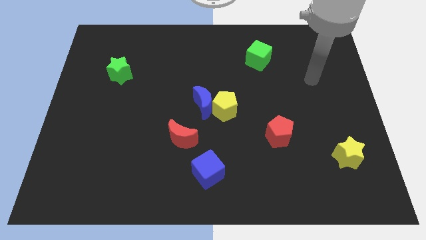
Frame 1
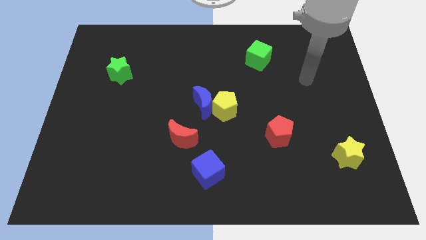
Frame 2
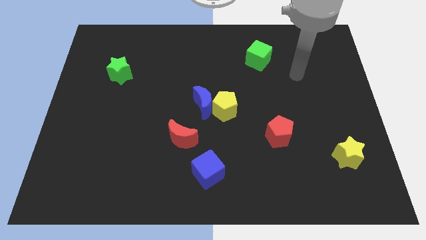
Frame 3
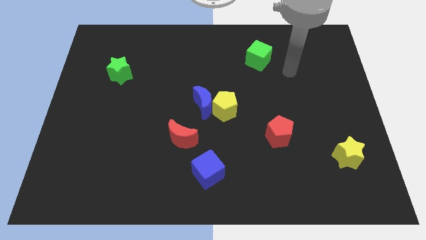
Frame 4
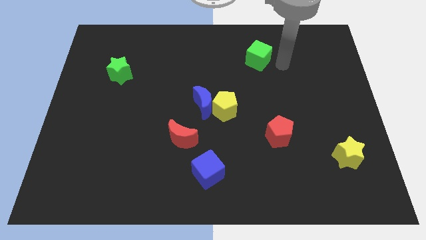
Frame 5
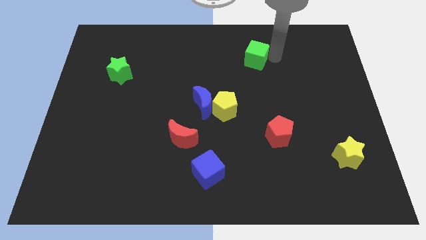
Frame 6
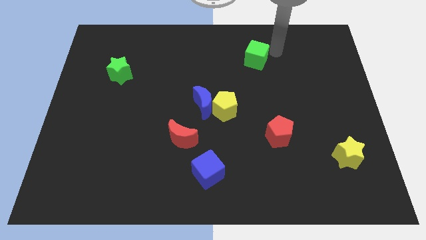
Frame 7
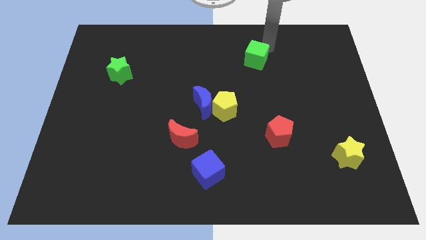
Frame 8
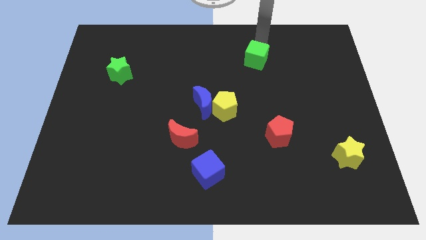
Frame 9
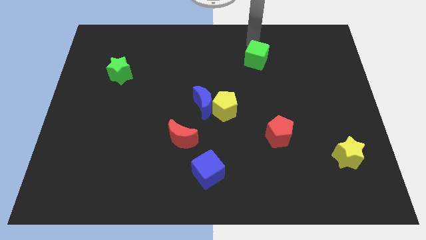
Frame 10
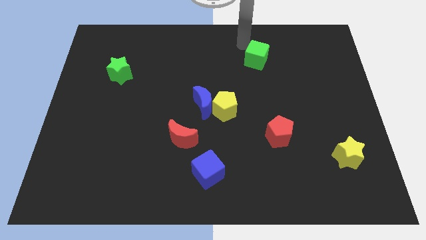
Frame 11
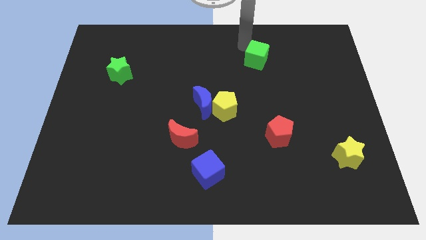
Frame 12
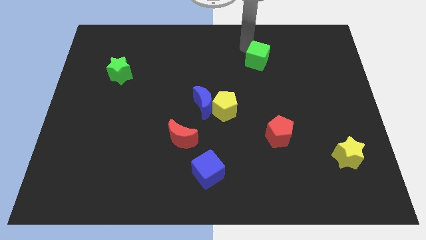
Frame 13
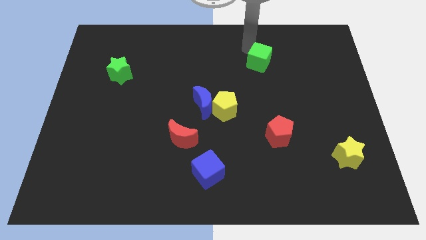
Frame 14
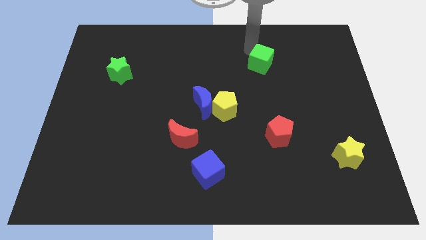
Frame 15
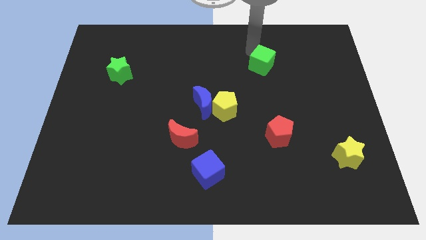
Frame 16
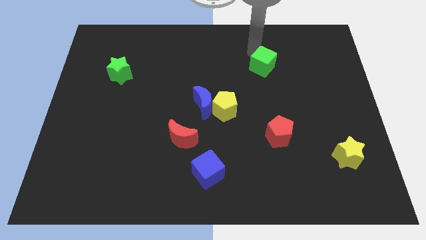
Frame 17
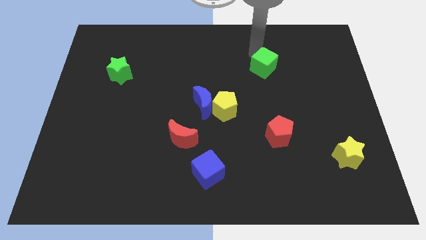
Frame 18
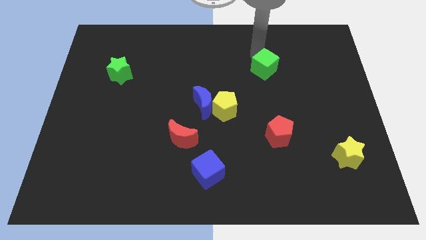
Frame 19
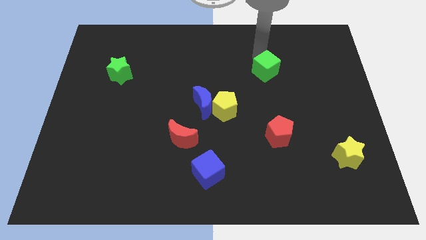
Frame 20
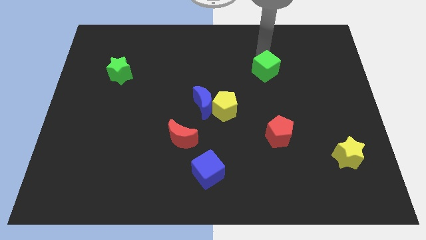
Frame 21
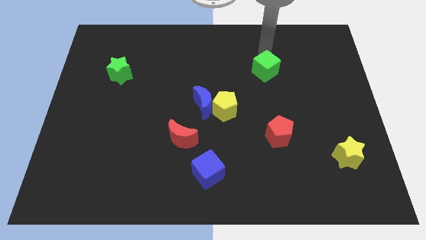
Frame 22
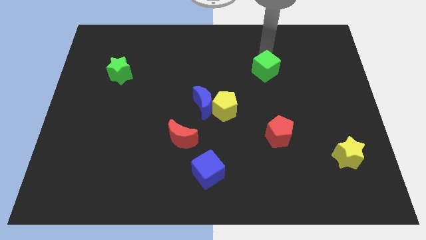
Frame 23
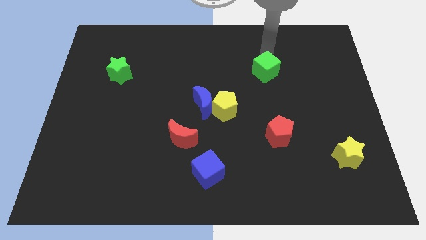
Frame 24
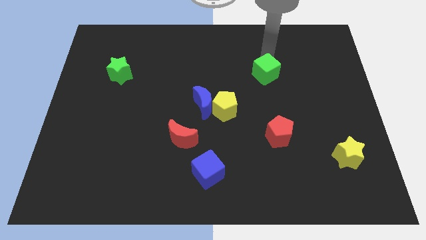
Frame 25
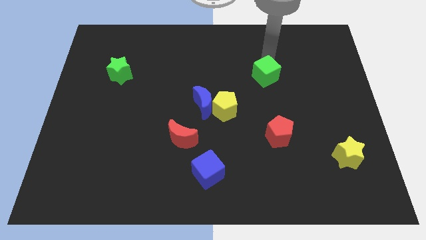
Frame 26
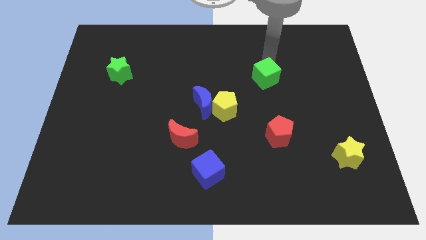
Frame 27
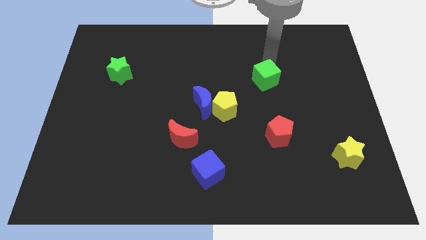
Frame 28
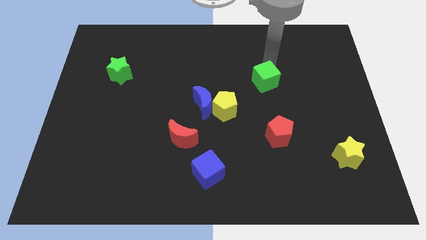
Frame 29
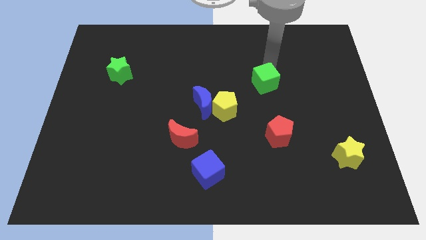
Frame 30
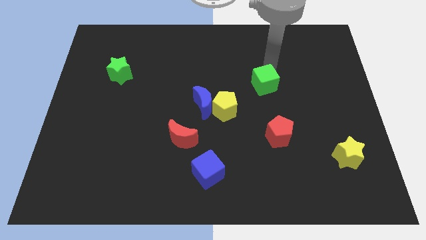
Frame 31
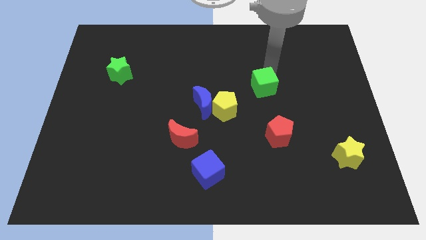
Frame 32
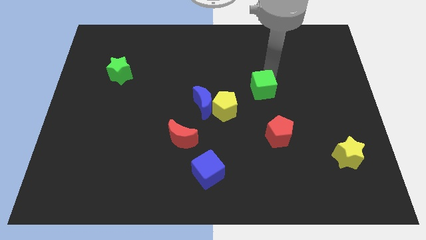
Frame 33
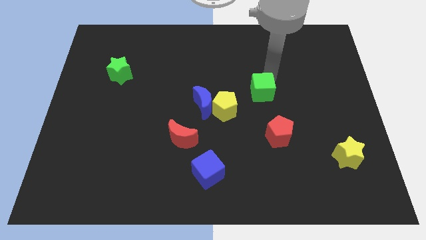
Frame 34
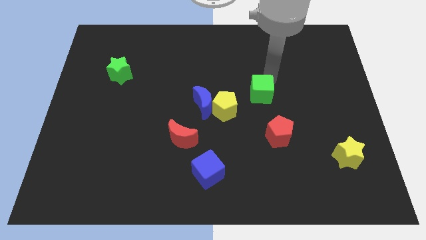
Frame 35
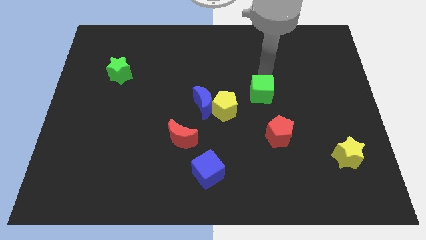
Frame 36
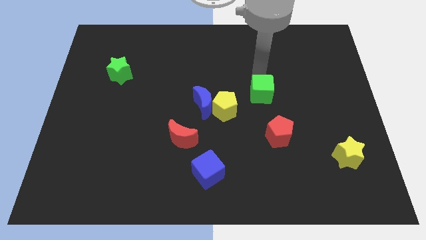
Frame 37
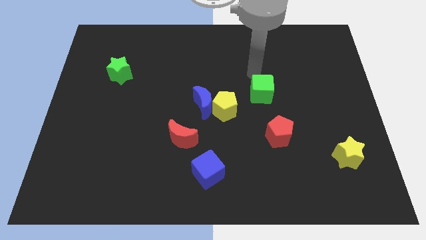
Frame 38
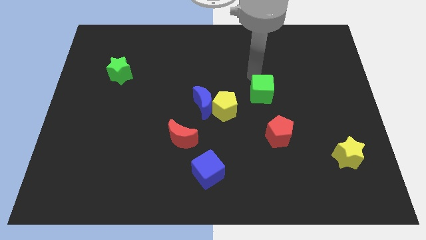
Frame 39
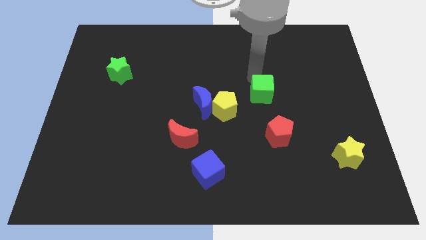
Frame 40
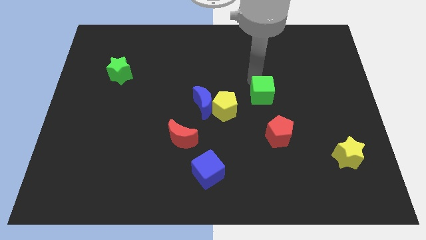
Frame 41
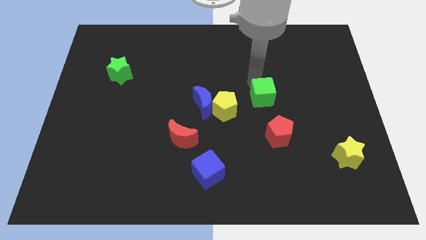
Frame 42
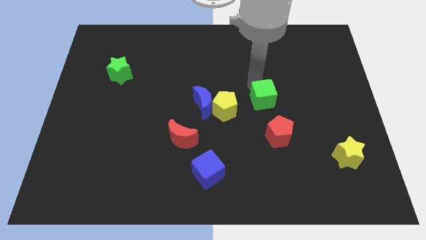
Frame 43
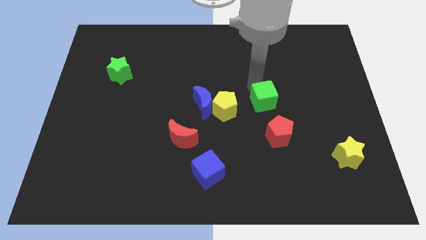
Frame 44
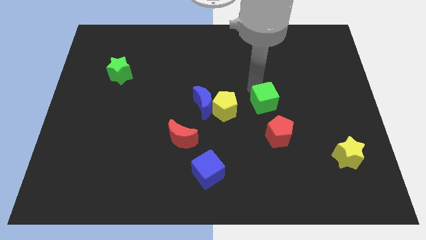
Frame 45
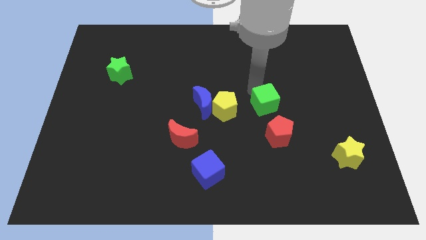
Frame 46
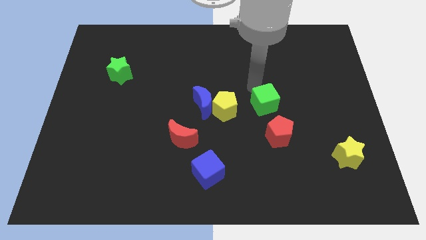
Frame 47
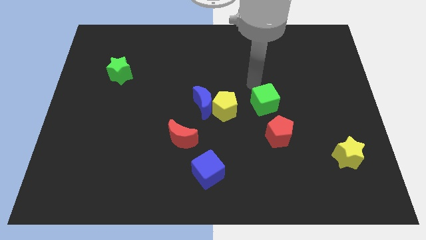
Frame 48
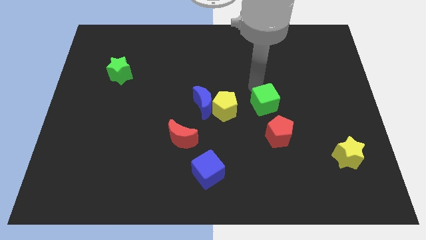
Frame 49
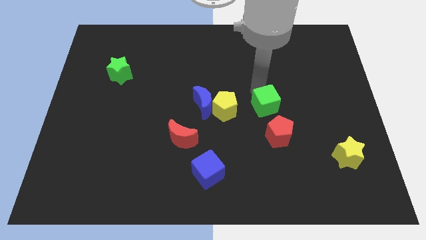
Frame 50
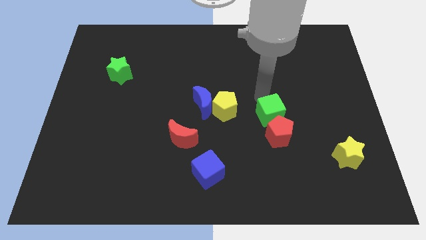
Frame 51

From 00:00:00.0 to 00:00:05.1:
slide the green cube towards the red pentagon

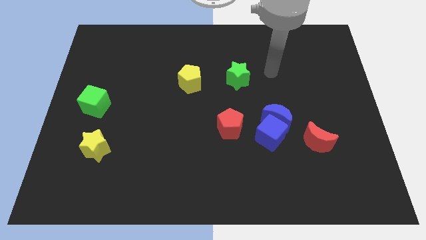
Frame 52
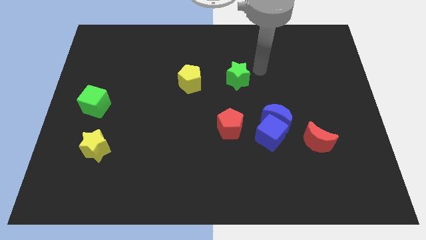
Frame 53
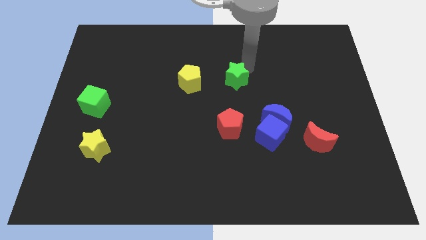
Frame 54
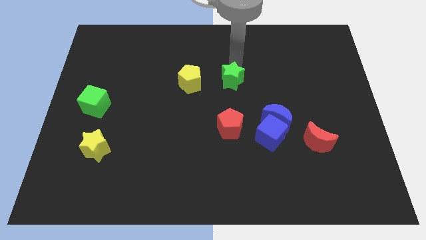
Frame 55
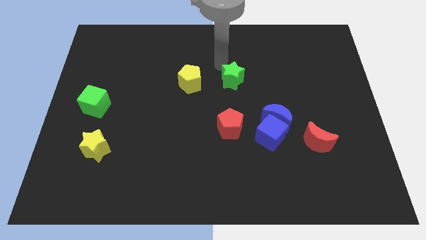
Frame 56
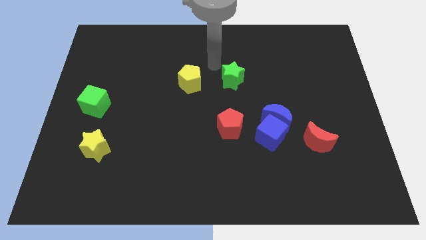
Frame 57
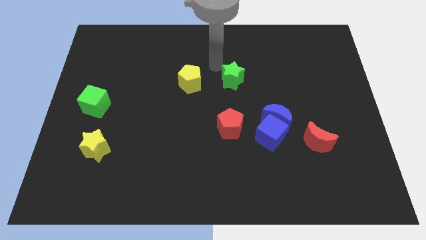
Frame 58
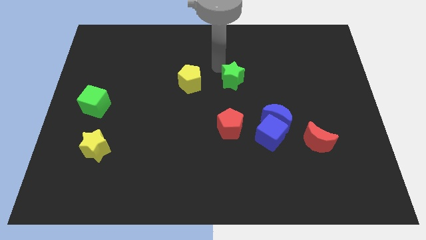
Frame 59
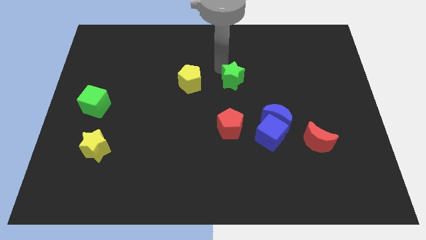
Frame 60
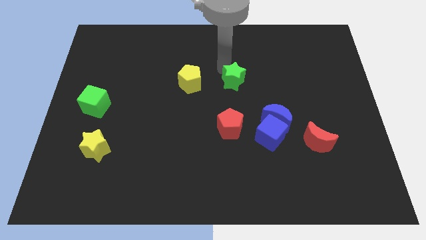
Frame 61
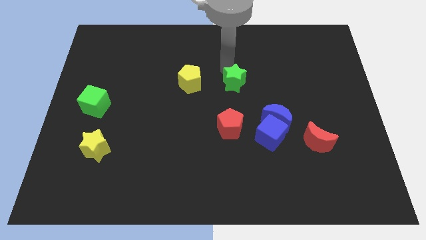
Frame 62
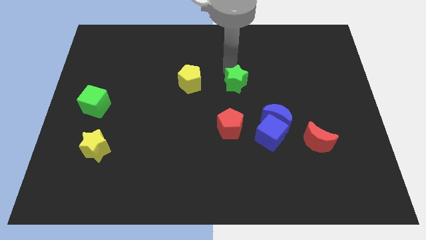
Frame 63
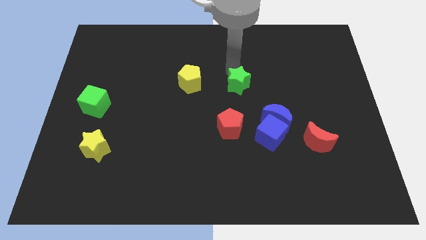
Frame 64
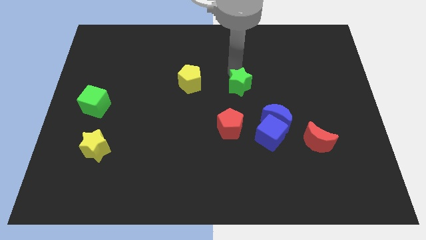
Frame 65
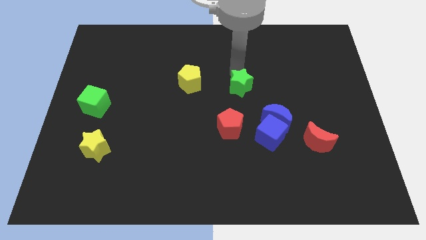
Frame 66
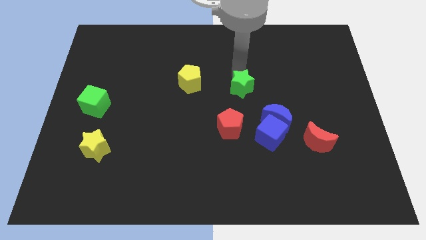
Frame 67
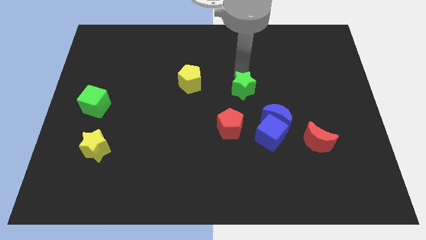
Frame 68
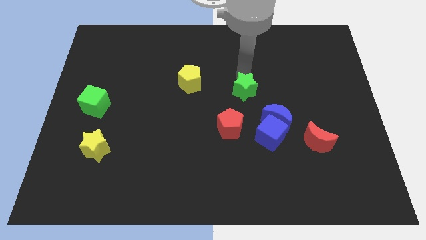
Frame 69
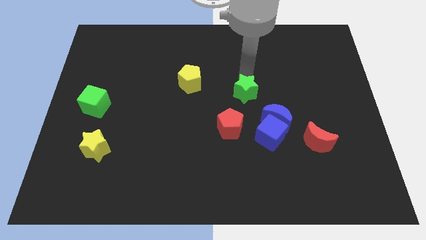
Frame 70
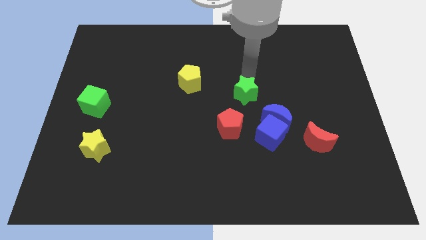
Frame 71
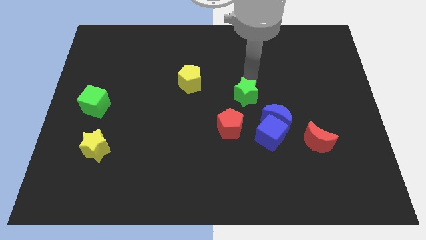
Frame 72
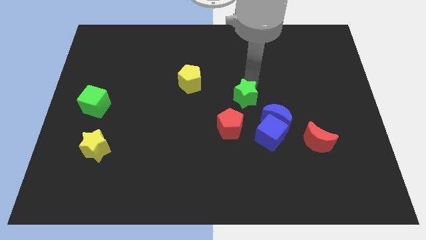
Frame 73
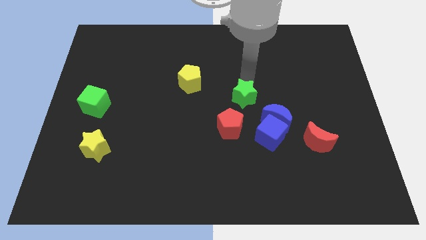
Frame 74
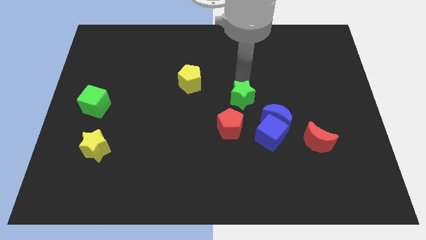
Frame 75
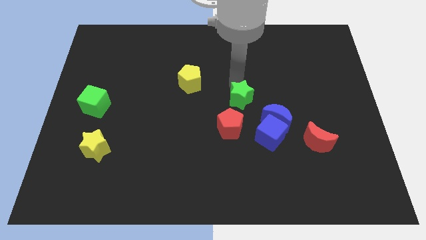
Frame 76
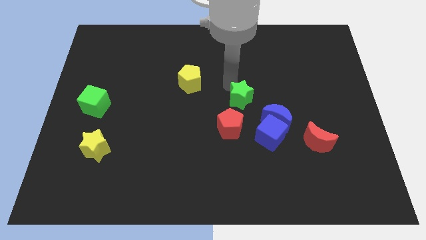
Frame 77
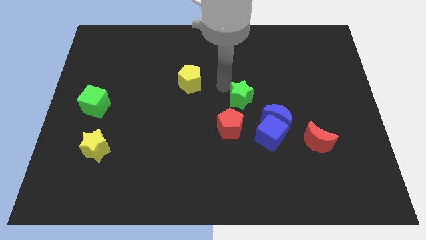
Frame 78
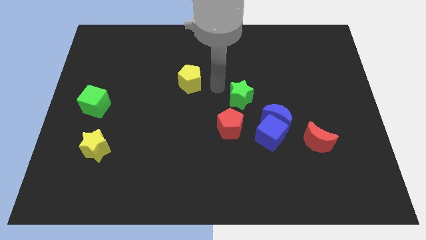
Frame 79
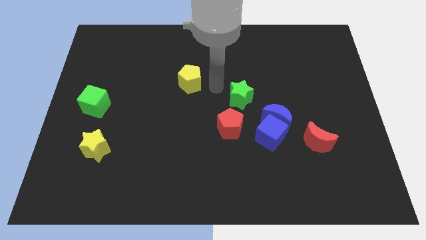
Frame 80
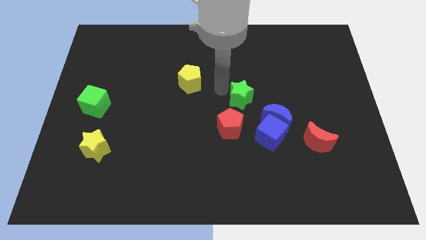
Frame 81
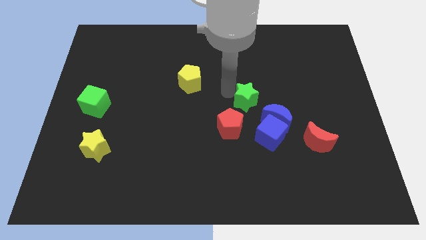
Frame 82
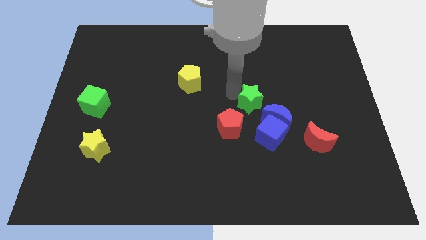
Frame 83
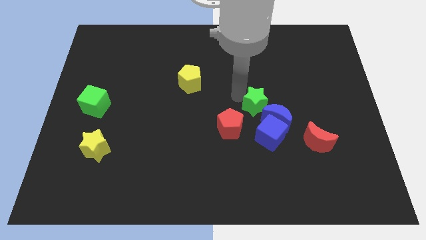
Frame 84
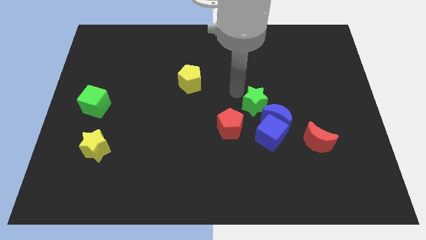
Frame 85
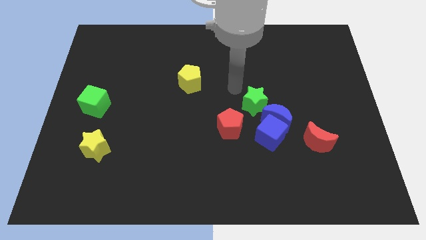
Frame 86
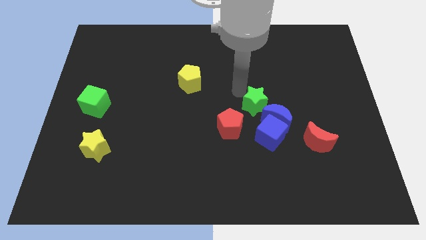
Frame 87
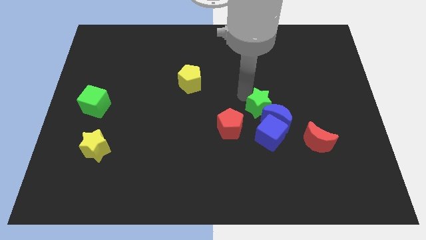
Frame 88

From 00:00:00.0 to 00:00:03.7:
slide the green star next to the blue moon
